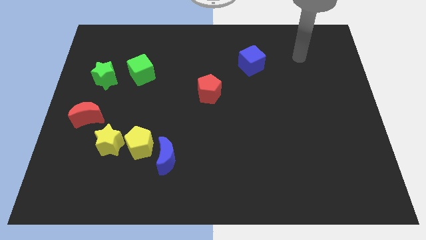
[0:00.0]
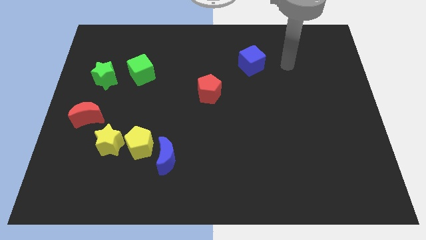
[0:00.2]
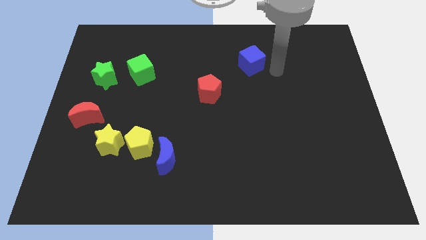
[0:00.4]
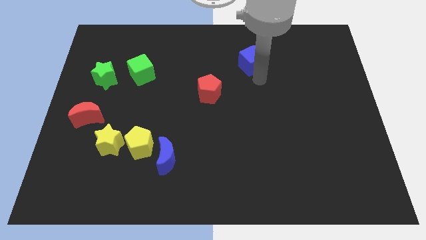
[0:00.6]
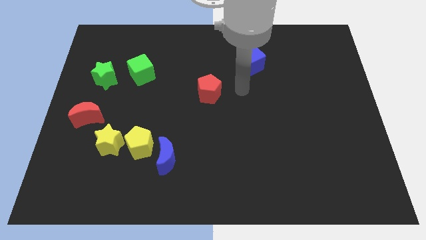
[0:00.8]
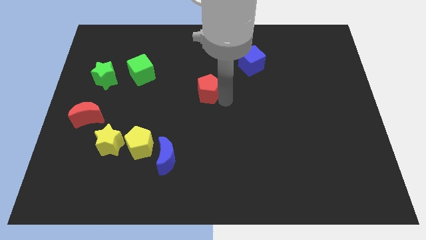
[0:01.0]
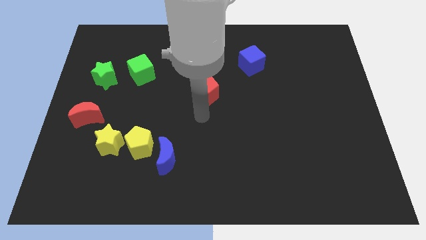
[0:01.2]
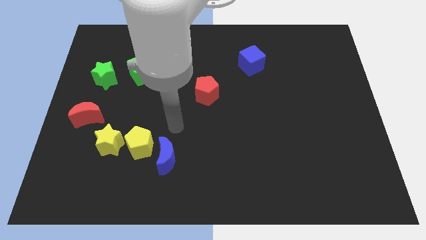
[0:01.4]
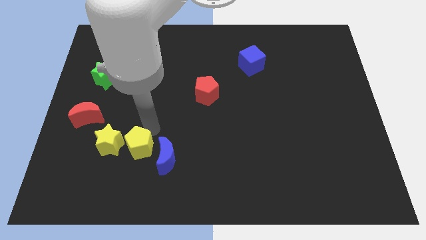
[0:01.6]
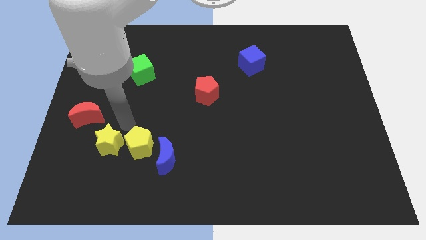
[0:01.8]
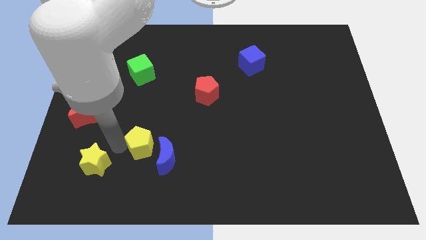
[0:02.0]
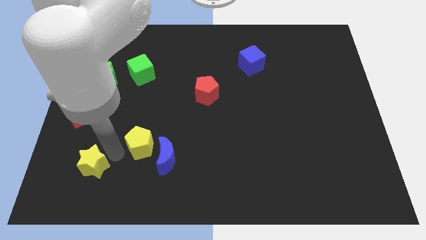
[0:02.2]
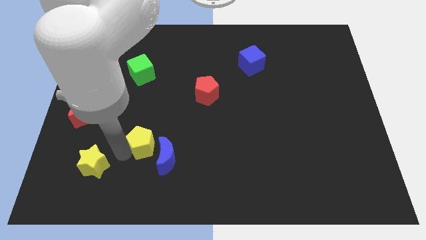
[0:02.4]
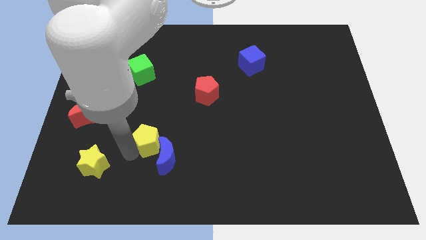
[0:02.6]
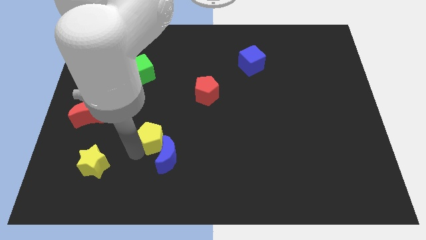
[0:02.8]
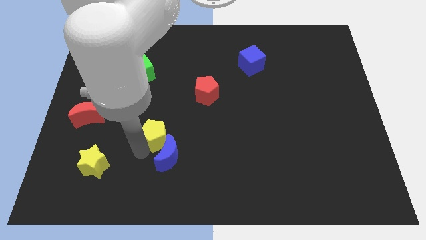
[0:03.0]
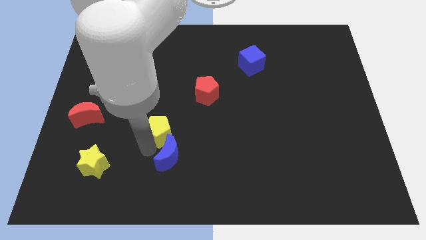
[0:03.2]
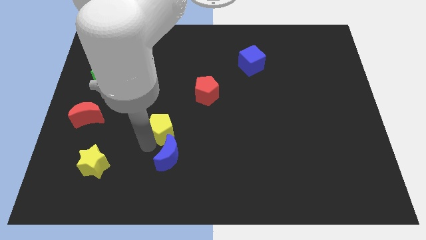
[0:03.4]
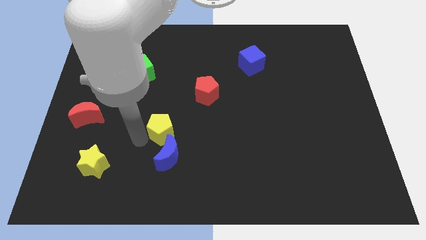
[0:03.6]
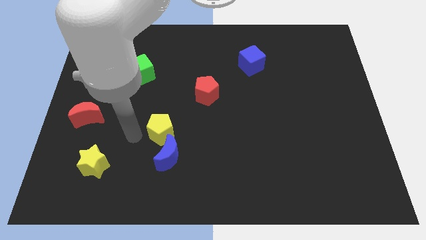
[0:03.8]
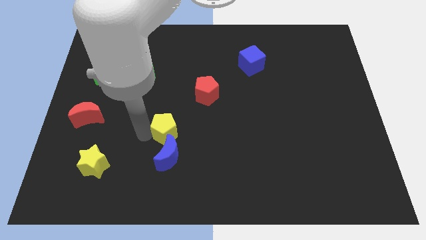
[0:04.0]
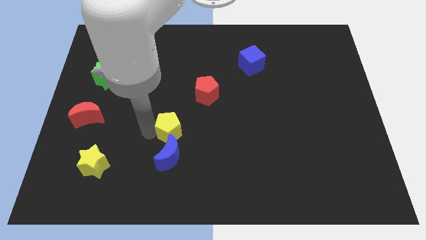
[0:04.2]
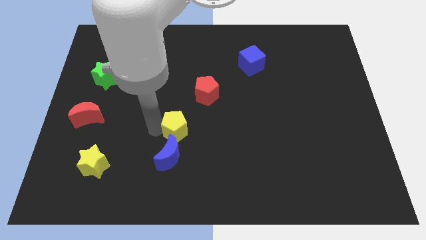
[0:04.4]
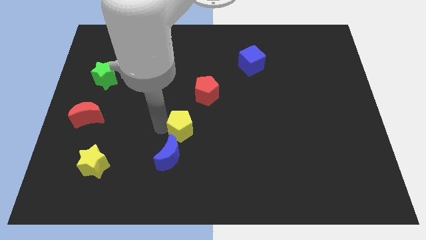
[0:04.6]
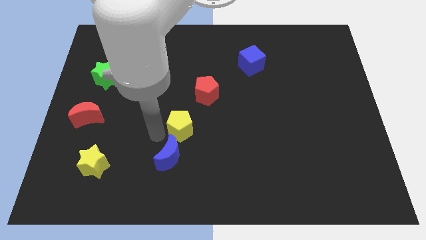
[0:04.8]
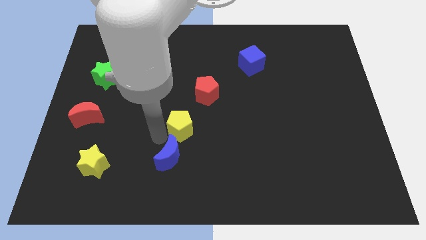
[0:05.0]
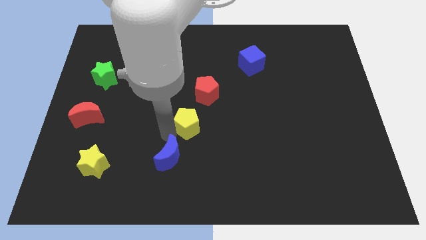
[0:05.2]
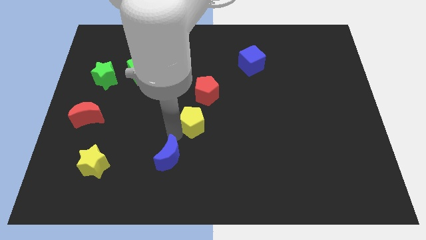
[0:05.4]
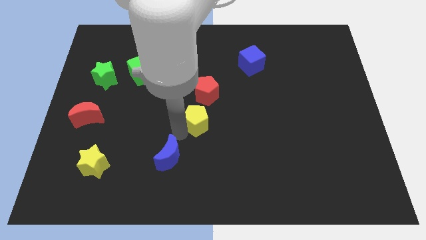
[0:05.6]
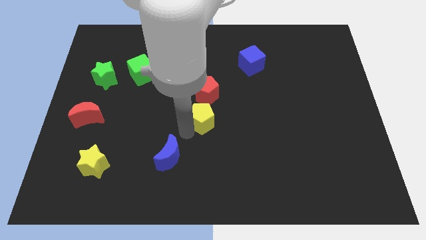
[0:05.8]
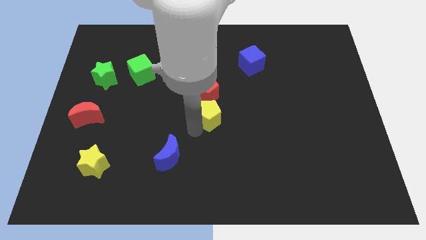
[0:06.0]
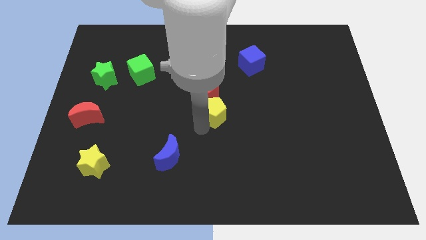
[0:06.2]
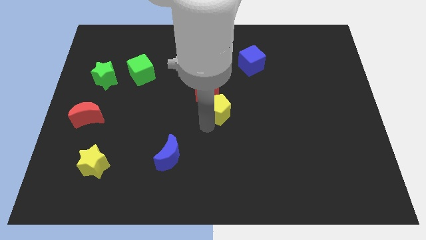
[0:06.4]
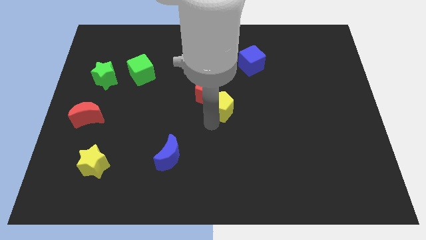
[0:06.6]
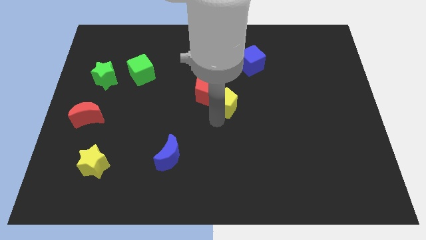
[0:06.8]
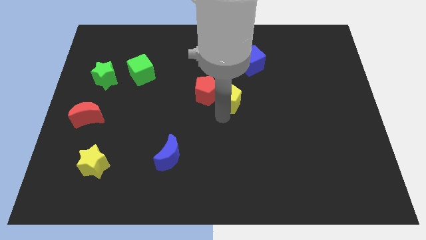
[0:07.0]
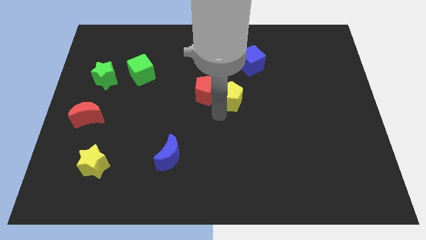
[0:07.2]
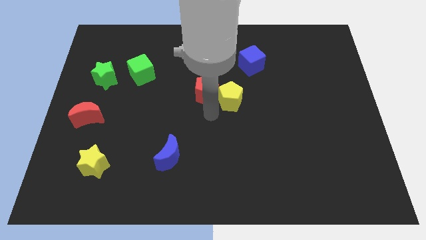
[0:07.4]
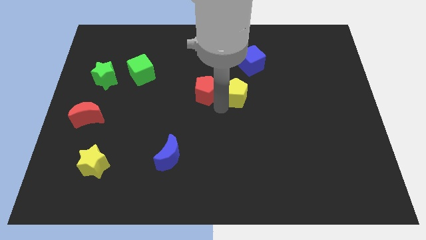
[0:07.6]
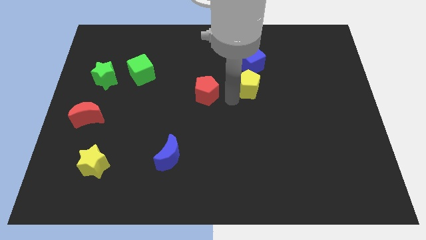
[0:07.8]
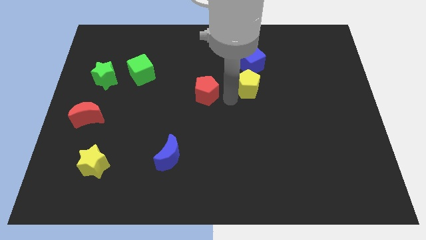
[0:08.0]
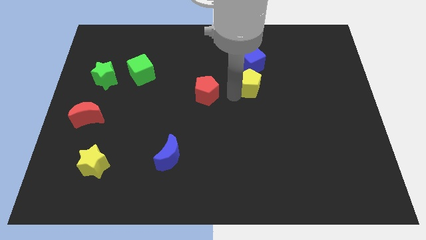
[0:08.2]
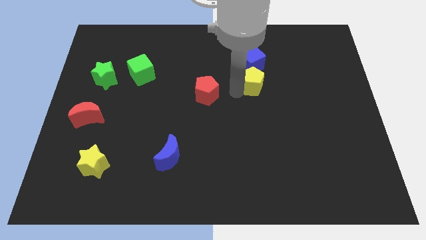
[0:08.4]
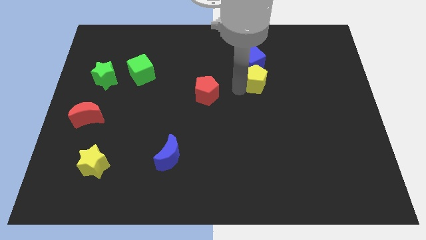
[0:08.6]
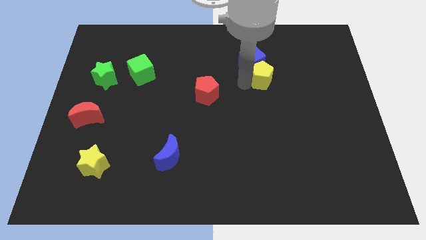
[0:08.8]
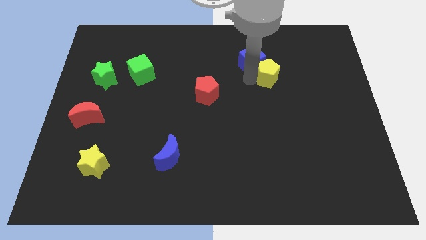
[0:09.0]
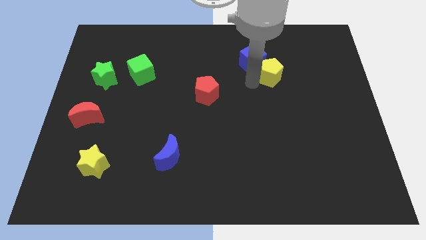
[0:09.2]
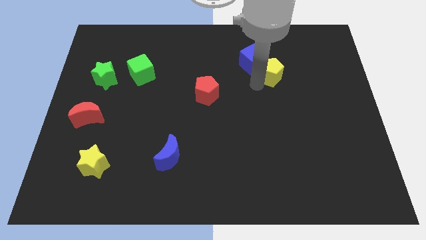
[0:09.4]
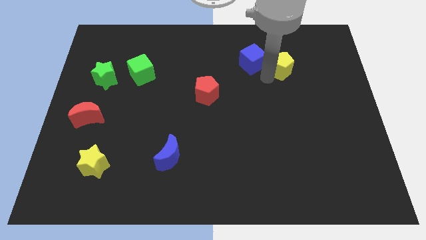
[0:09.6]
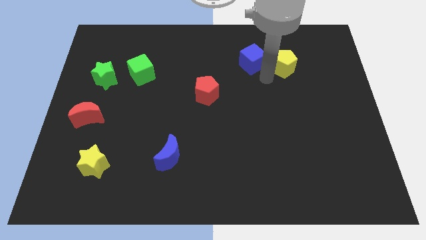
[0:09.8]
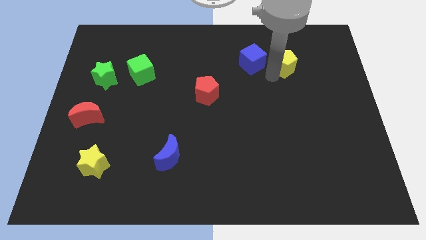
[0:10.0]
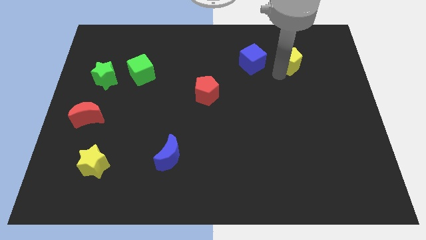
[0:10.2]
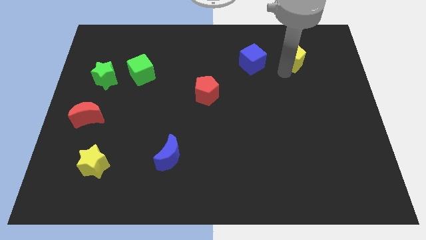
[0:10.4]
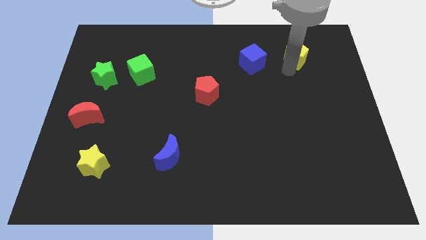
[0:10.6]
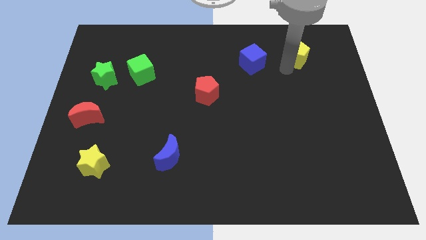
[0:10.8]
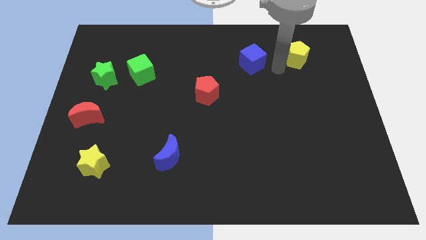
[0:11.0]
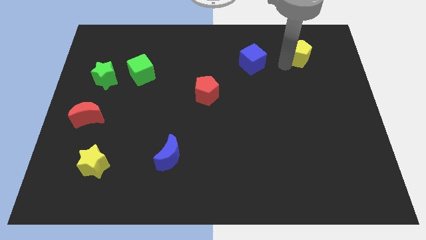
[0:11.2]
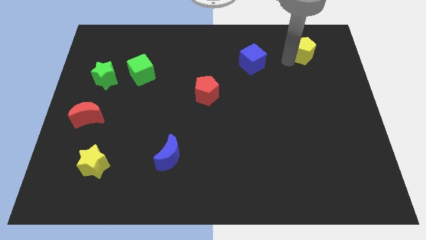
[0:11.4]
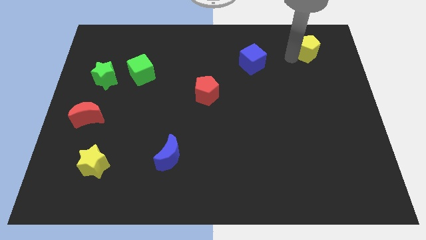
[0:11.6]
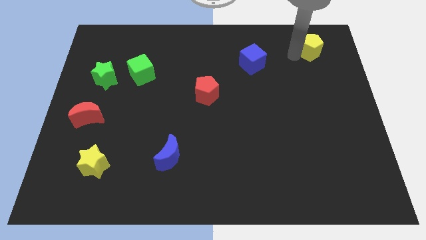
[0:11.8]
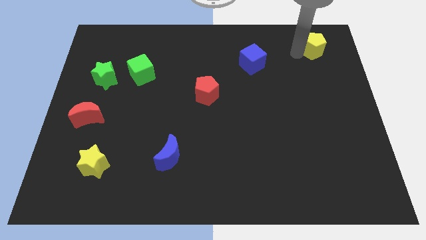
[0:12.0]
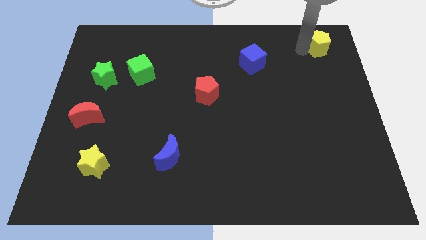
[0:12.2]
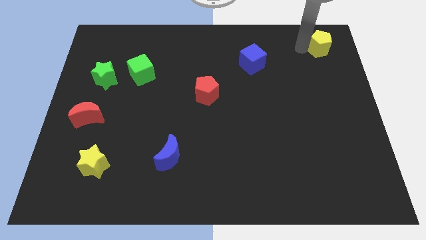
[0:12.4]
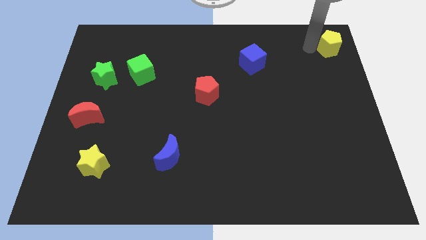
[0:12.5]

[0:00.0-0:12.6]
push the yellow pentagon to the top right corner
